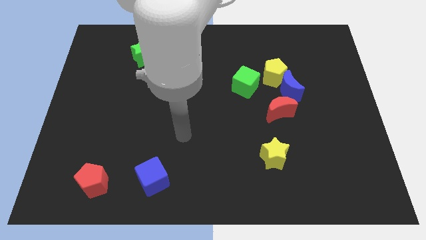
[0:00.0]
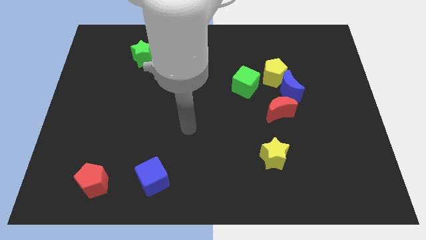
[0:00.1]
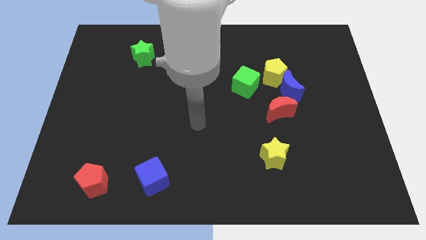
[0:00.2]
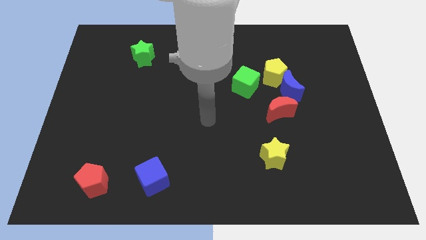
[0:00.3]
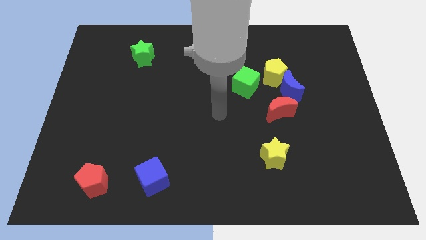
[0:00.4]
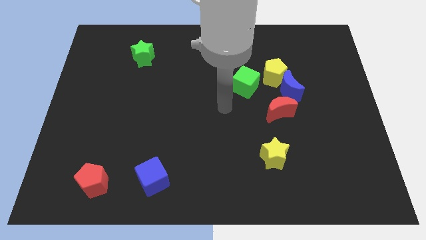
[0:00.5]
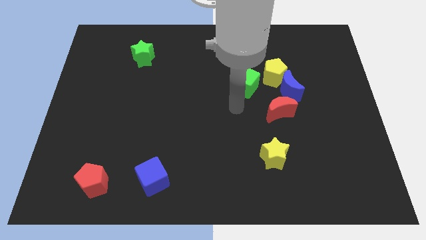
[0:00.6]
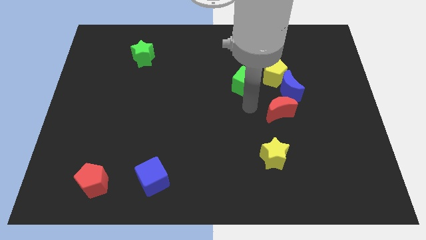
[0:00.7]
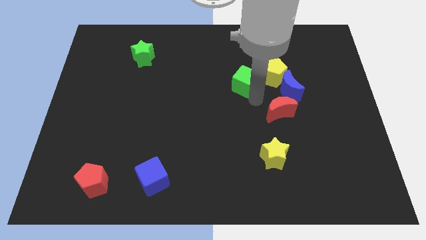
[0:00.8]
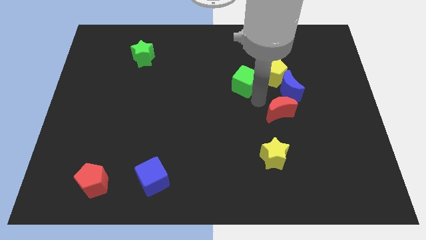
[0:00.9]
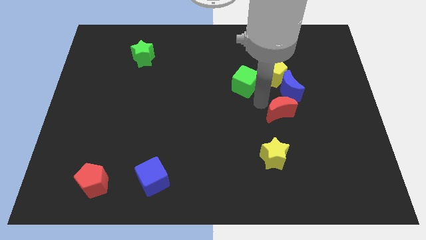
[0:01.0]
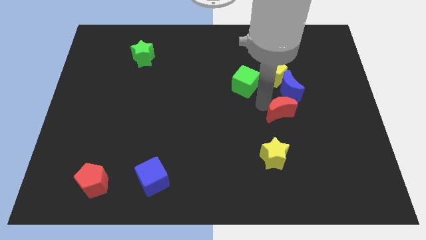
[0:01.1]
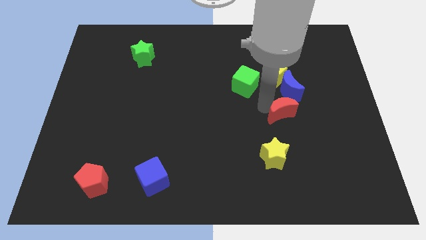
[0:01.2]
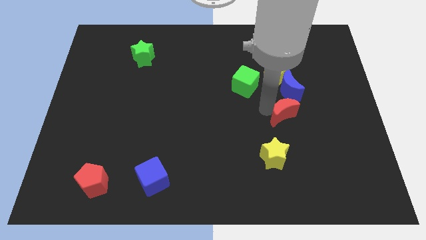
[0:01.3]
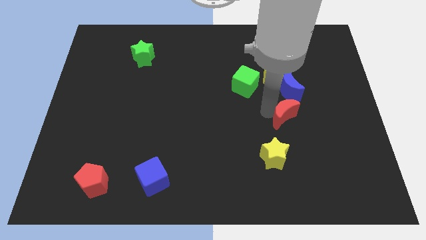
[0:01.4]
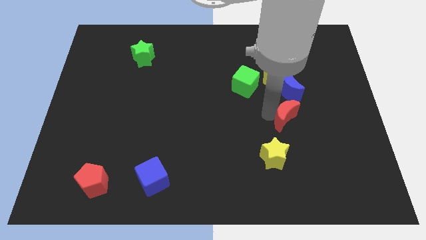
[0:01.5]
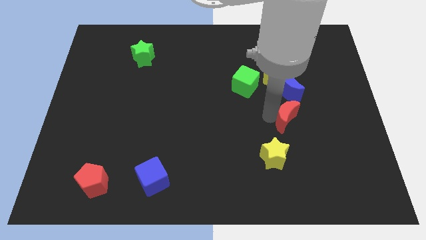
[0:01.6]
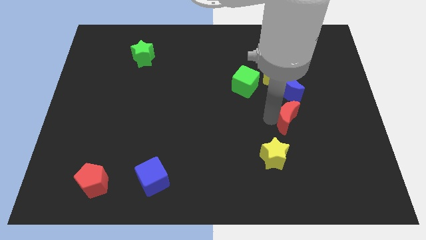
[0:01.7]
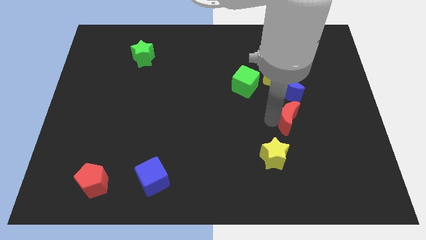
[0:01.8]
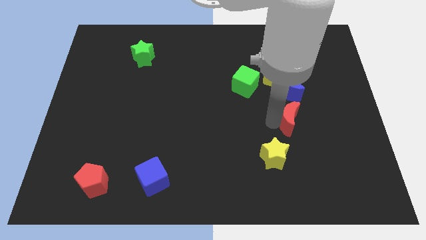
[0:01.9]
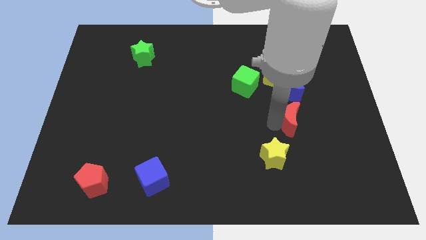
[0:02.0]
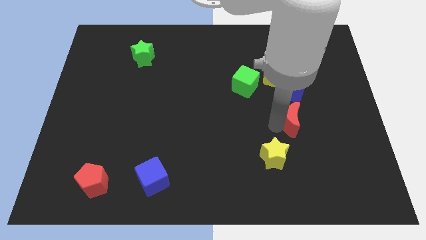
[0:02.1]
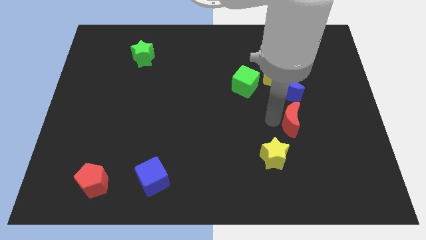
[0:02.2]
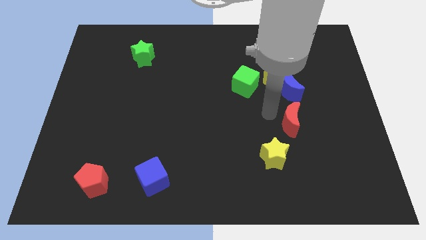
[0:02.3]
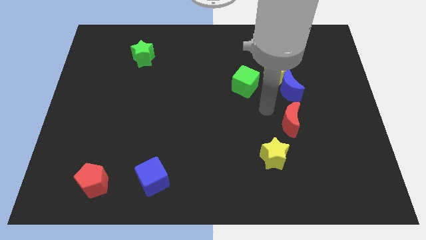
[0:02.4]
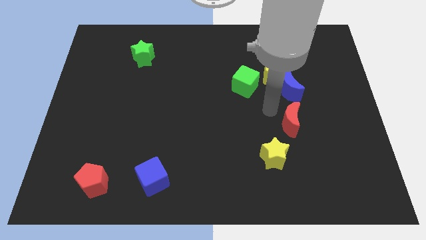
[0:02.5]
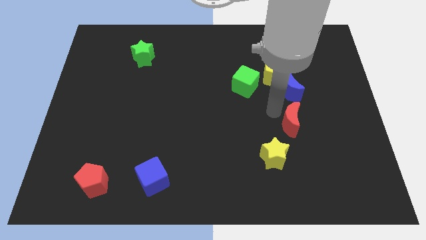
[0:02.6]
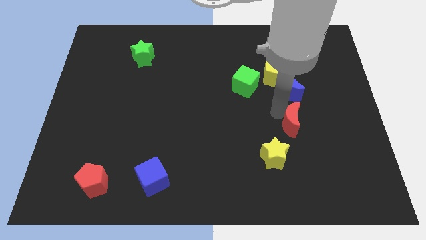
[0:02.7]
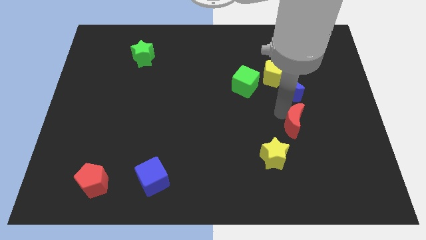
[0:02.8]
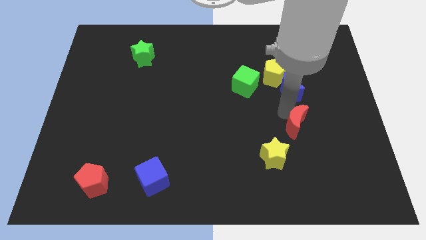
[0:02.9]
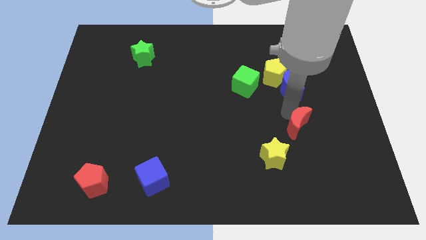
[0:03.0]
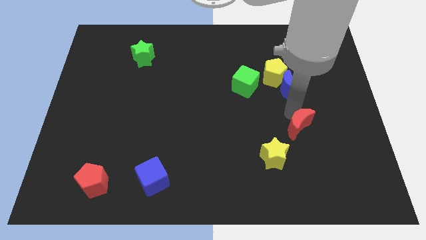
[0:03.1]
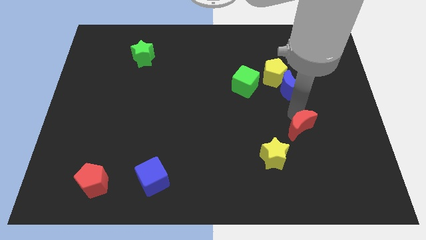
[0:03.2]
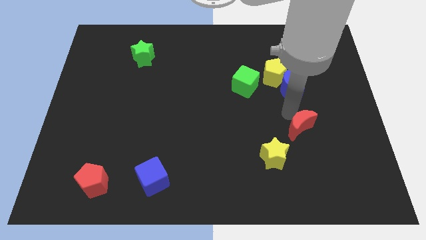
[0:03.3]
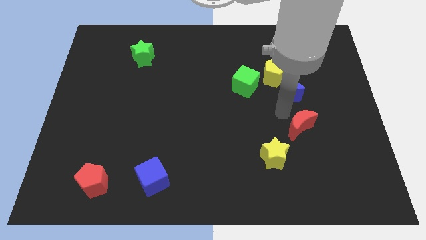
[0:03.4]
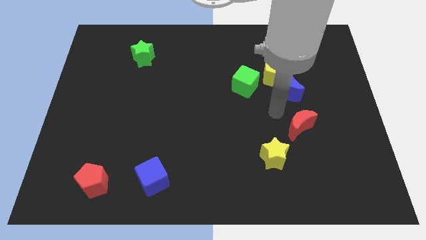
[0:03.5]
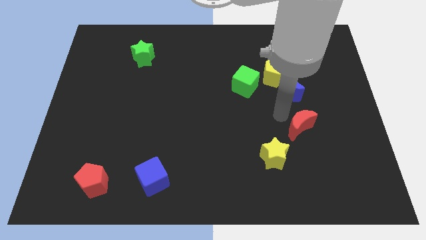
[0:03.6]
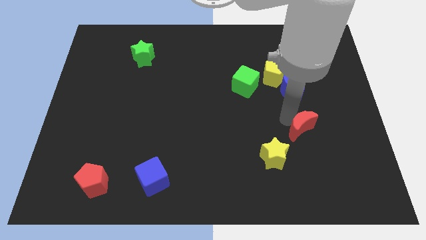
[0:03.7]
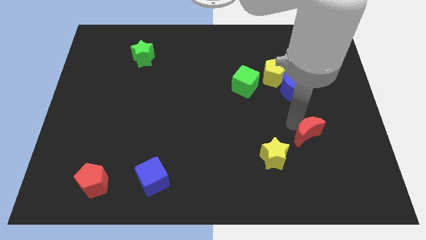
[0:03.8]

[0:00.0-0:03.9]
slightly slide the red moon down and then right

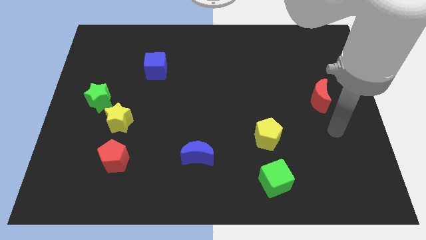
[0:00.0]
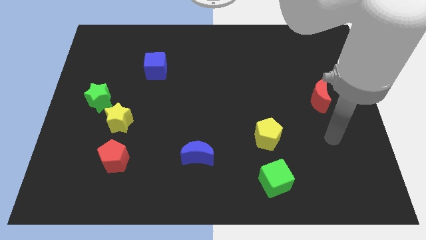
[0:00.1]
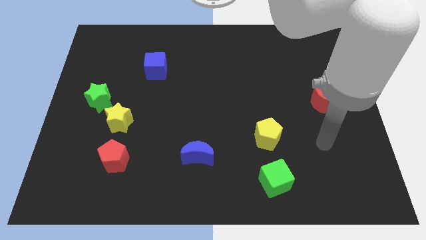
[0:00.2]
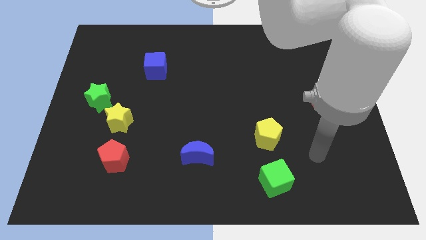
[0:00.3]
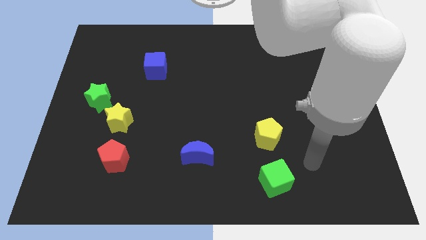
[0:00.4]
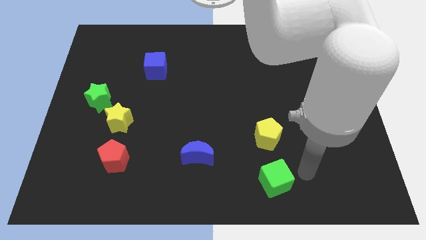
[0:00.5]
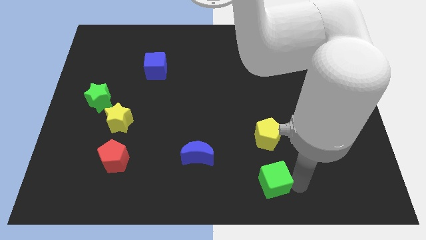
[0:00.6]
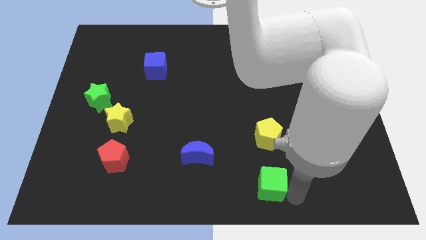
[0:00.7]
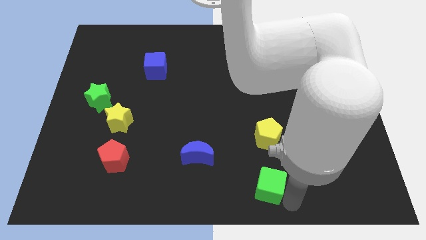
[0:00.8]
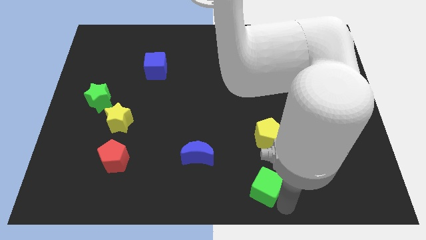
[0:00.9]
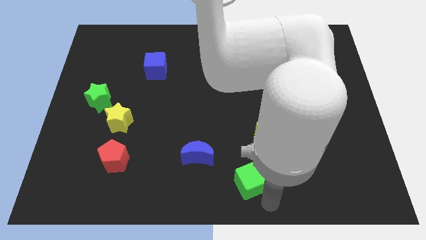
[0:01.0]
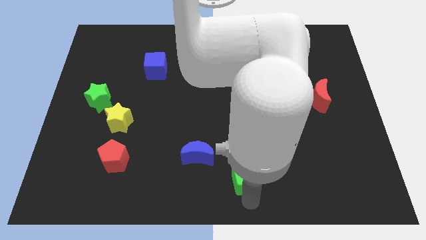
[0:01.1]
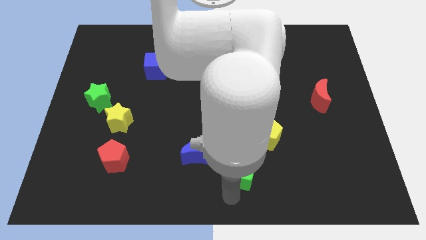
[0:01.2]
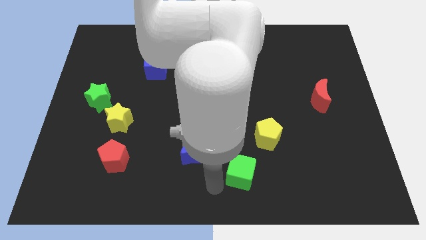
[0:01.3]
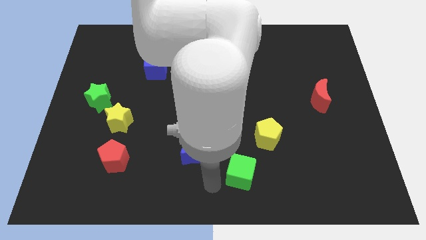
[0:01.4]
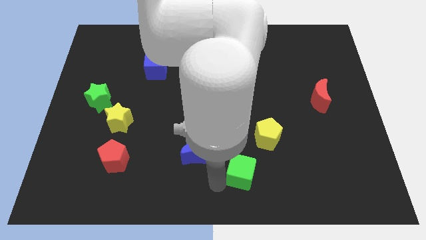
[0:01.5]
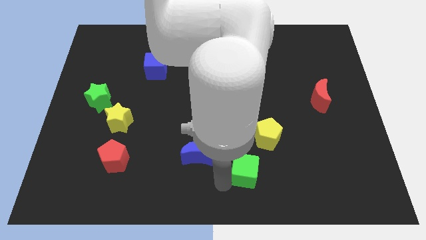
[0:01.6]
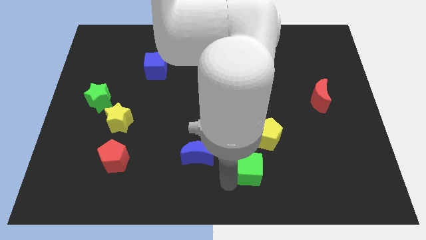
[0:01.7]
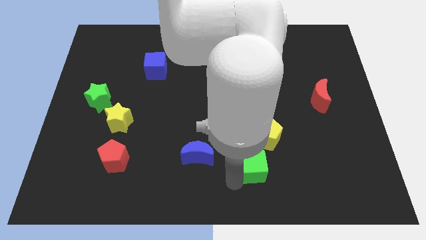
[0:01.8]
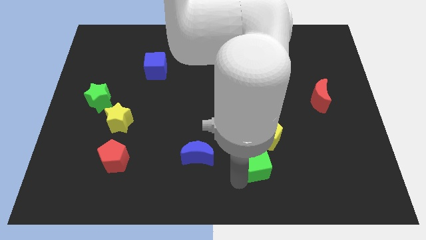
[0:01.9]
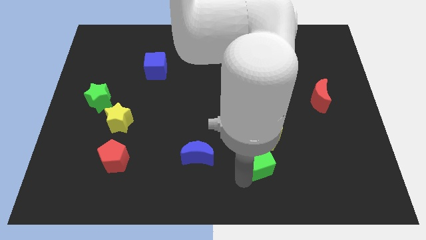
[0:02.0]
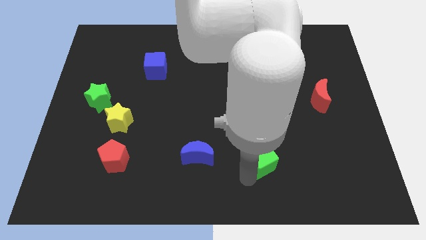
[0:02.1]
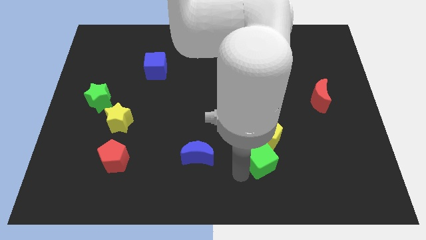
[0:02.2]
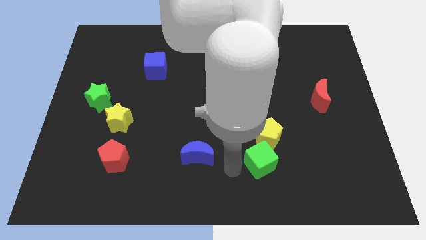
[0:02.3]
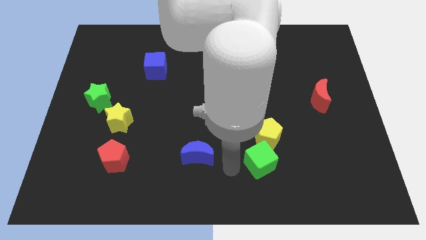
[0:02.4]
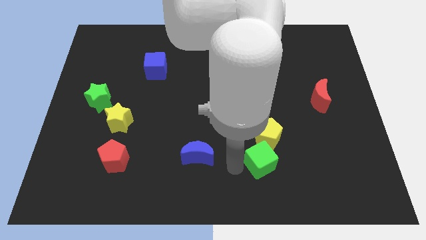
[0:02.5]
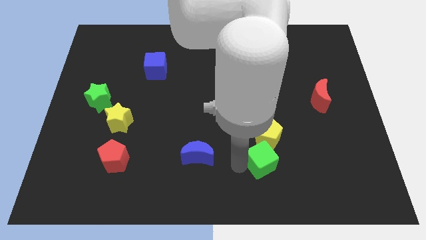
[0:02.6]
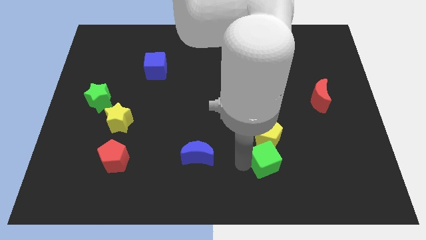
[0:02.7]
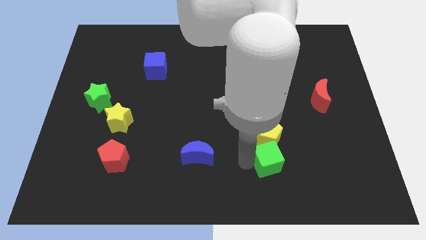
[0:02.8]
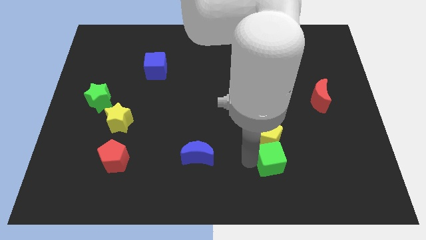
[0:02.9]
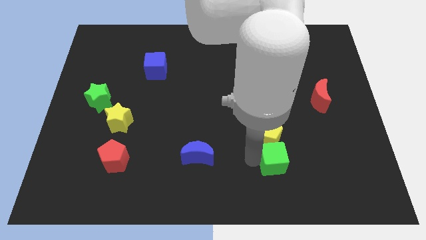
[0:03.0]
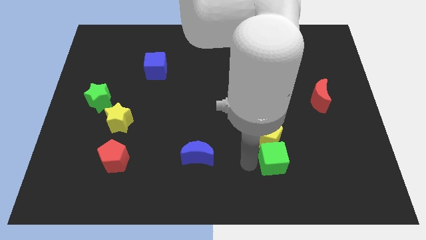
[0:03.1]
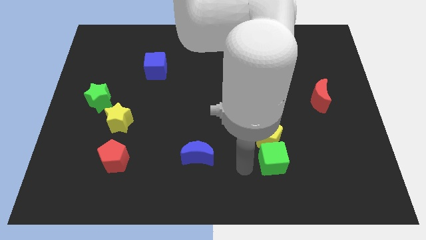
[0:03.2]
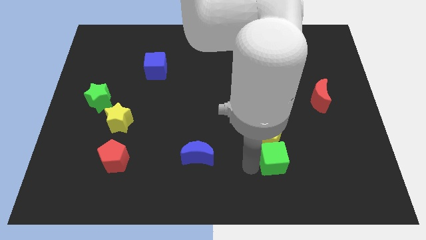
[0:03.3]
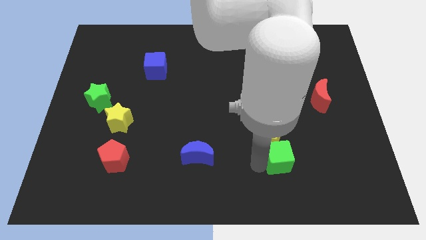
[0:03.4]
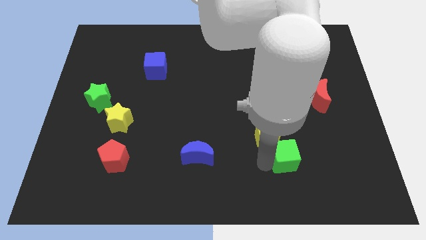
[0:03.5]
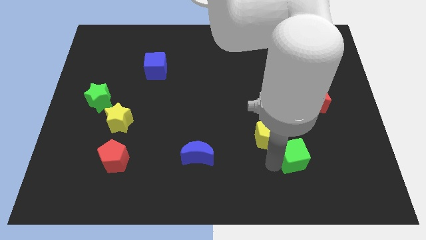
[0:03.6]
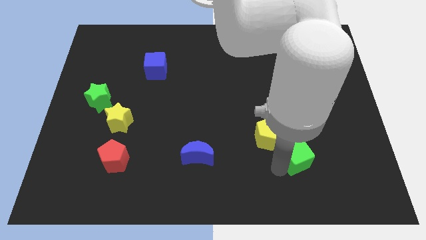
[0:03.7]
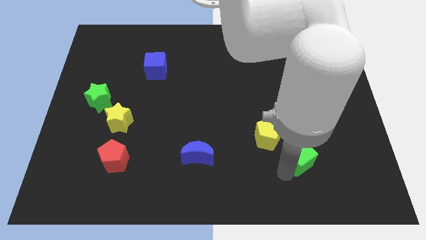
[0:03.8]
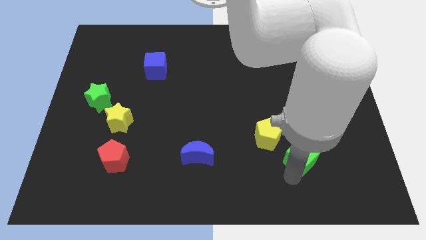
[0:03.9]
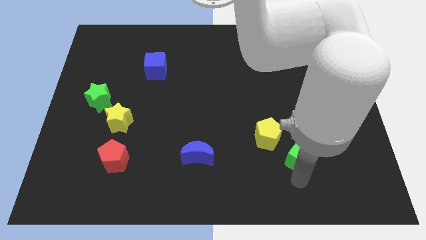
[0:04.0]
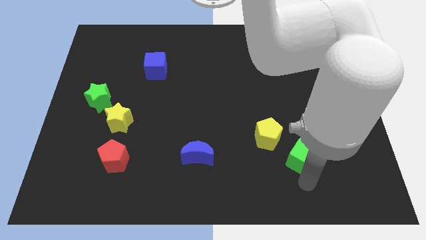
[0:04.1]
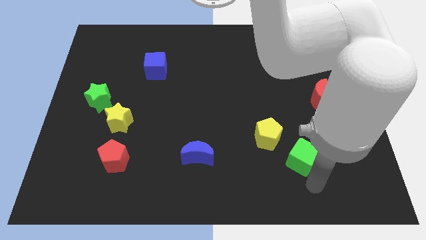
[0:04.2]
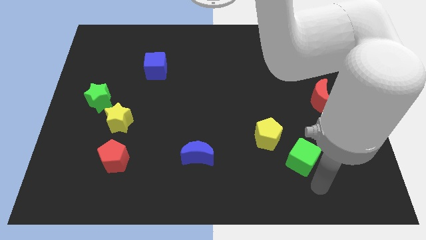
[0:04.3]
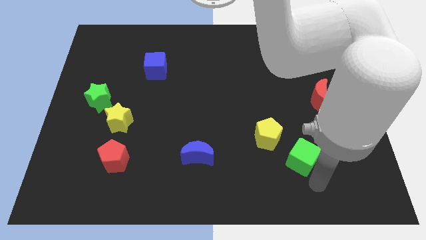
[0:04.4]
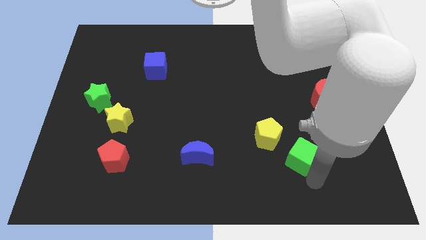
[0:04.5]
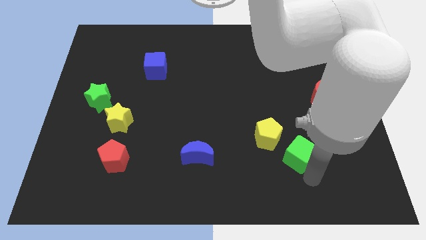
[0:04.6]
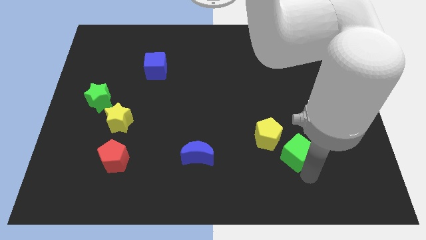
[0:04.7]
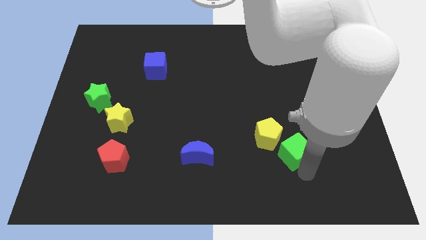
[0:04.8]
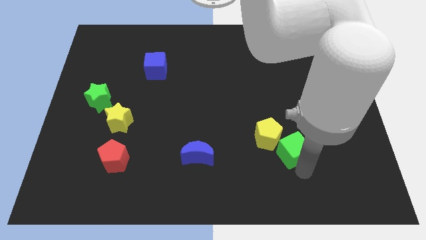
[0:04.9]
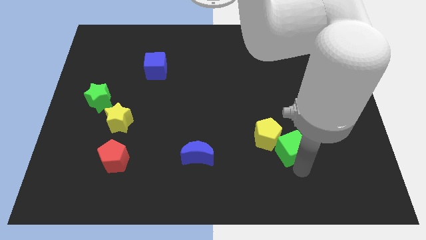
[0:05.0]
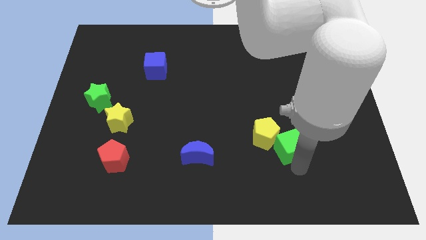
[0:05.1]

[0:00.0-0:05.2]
push the green cube somewhat upwards
